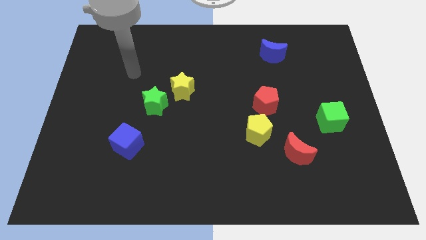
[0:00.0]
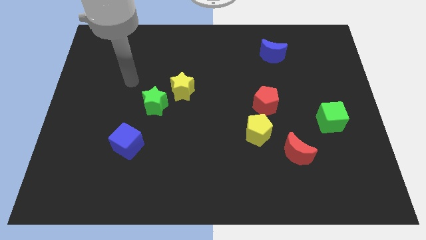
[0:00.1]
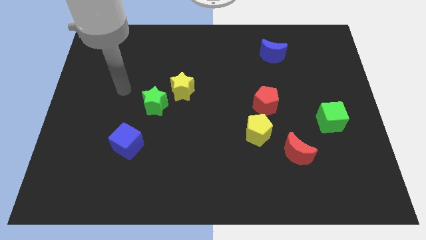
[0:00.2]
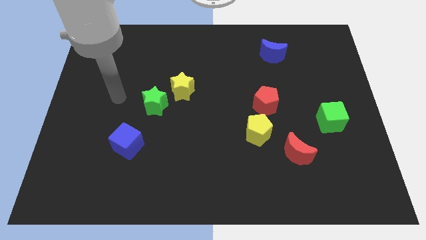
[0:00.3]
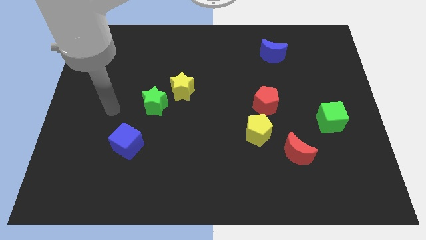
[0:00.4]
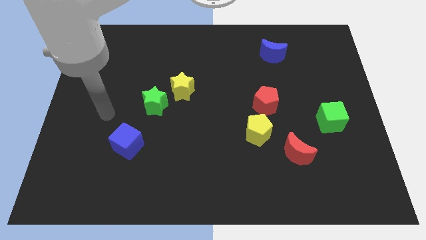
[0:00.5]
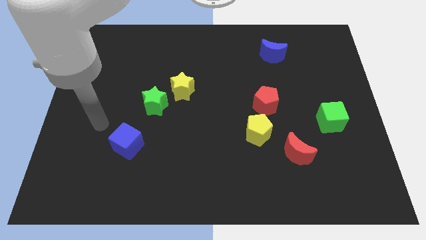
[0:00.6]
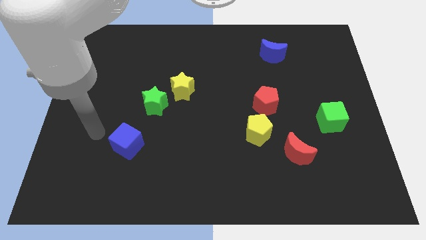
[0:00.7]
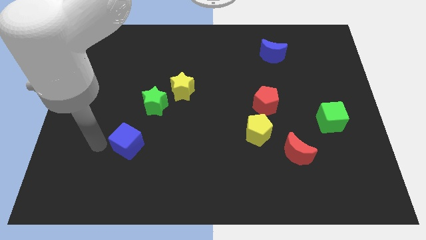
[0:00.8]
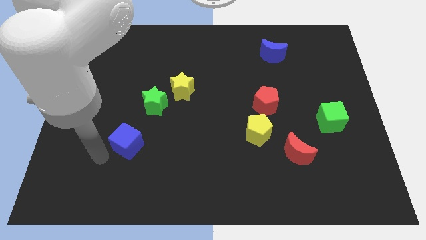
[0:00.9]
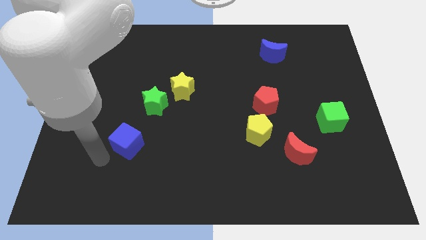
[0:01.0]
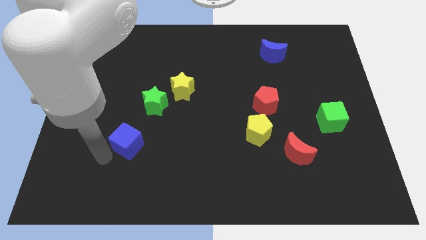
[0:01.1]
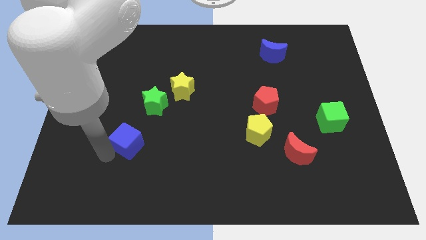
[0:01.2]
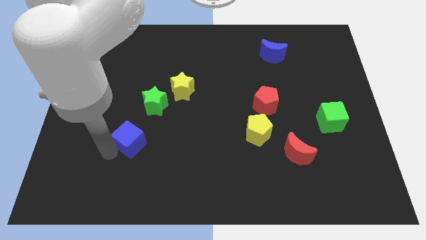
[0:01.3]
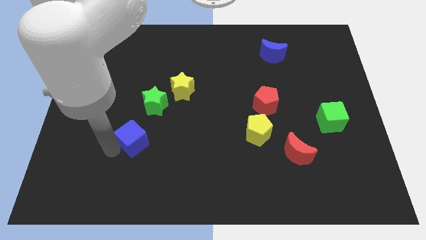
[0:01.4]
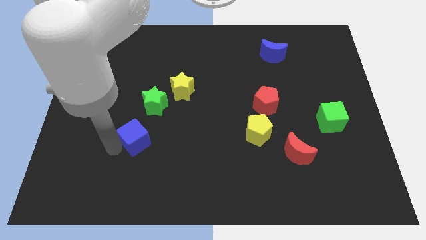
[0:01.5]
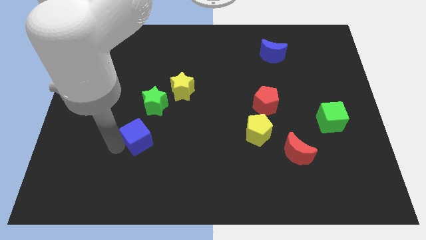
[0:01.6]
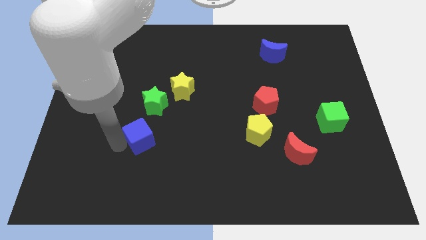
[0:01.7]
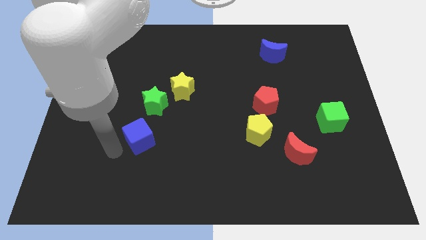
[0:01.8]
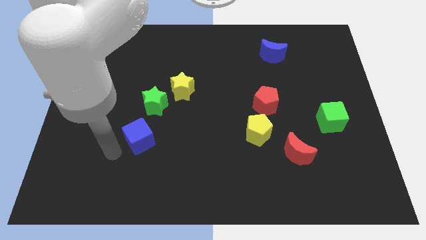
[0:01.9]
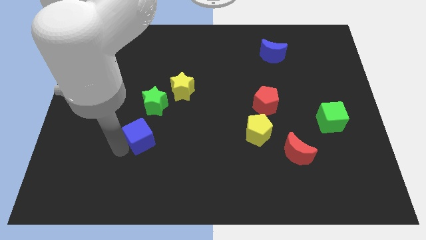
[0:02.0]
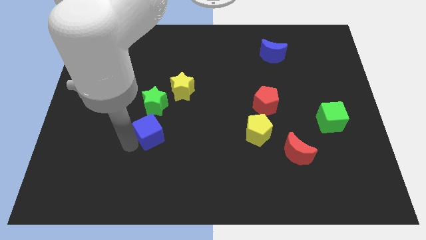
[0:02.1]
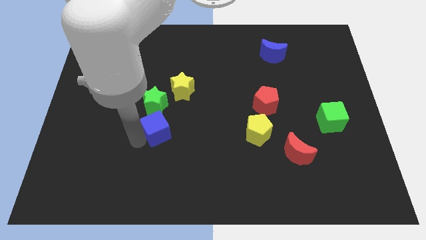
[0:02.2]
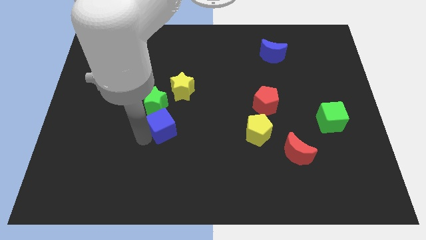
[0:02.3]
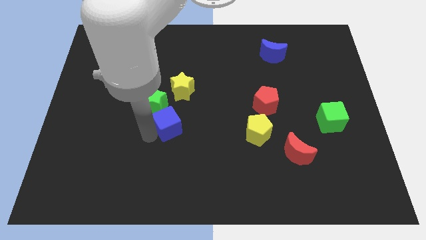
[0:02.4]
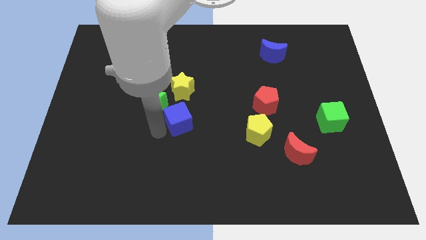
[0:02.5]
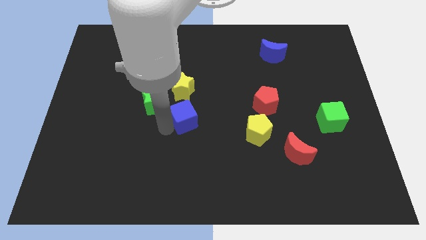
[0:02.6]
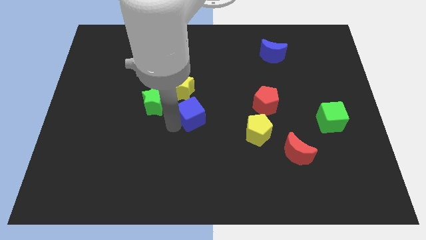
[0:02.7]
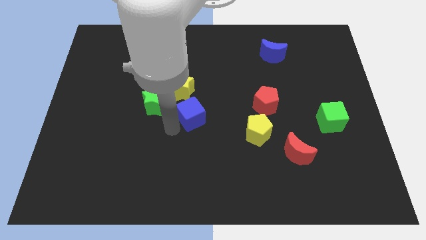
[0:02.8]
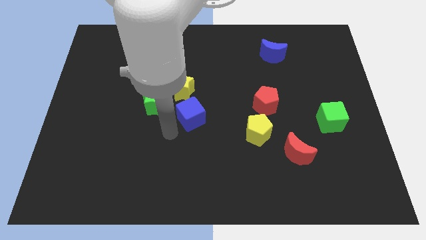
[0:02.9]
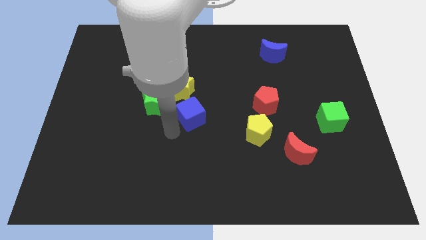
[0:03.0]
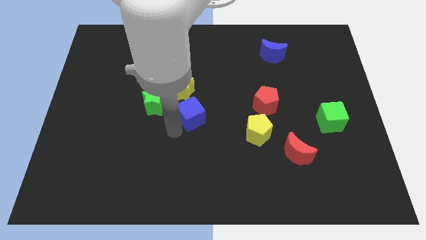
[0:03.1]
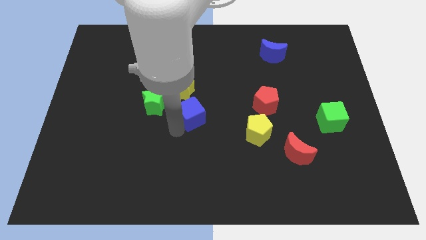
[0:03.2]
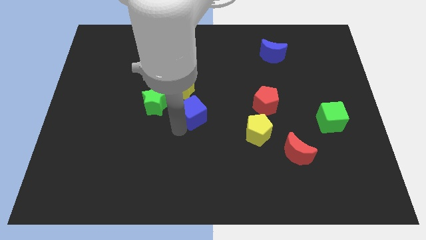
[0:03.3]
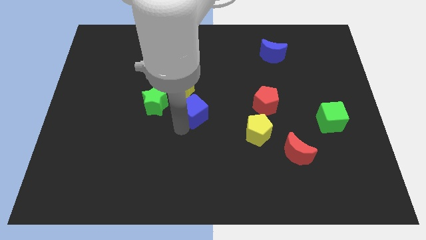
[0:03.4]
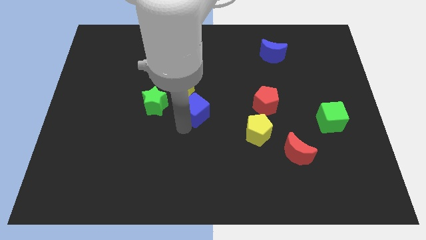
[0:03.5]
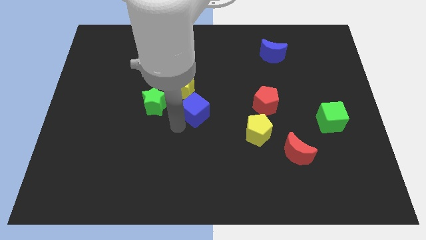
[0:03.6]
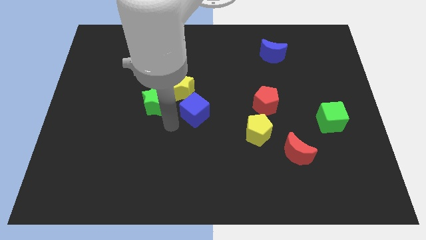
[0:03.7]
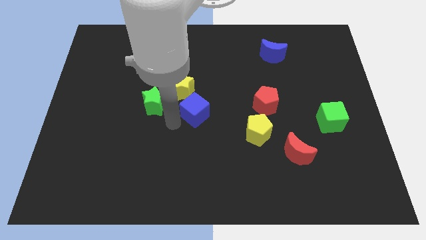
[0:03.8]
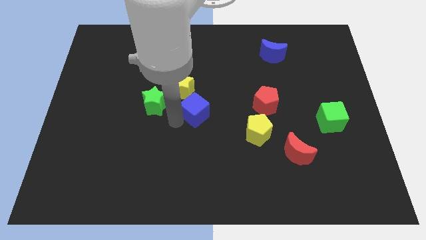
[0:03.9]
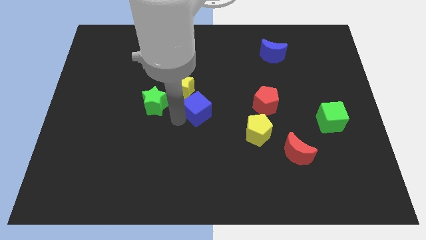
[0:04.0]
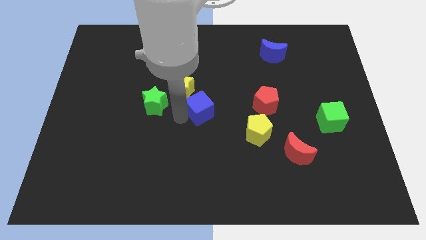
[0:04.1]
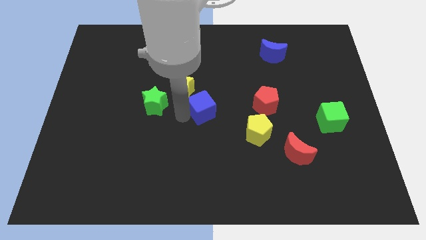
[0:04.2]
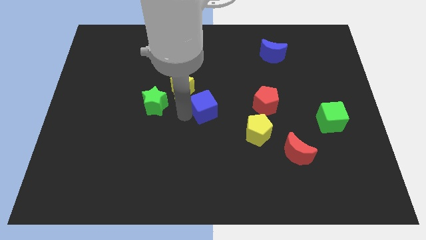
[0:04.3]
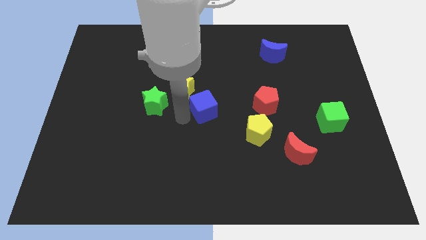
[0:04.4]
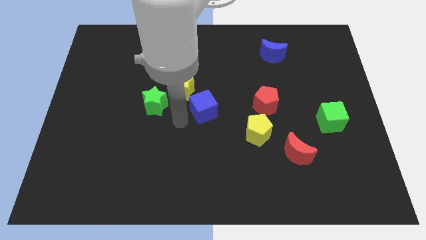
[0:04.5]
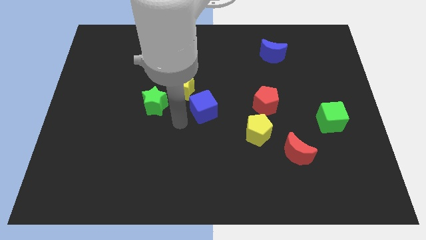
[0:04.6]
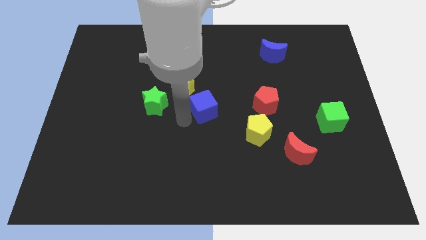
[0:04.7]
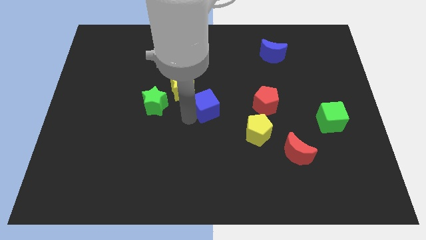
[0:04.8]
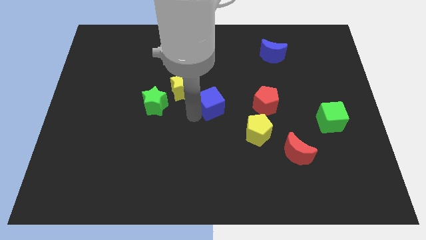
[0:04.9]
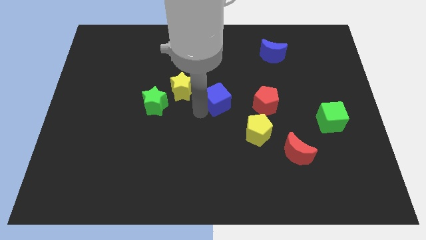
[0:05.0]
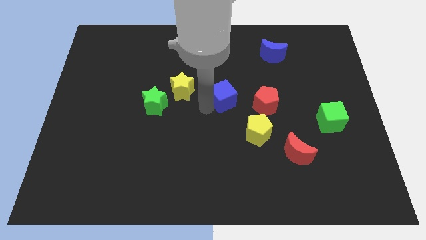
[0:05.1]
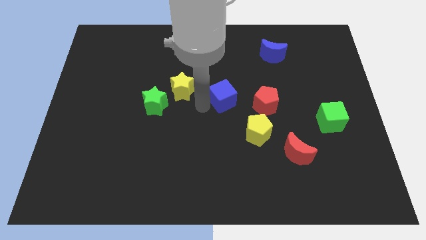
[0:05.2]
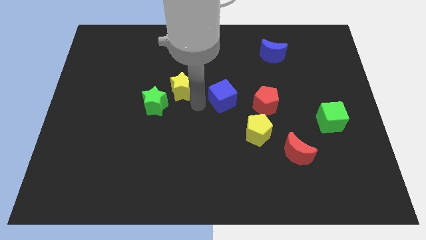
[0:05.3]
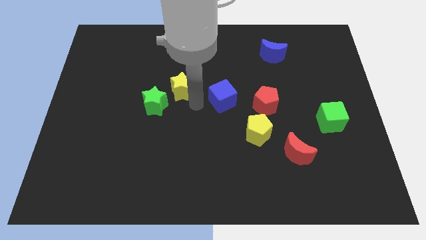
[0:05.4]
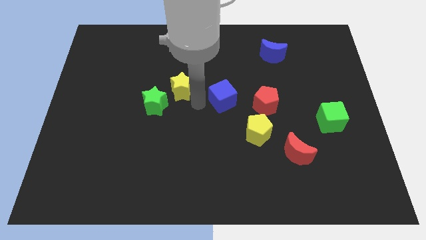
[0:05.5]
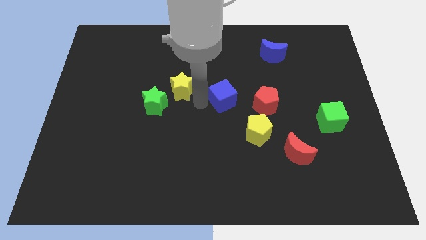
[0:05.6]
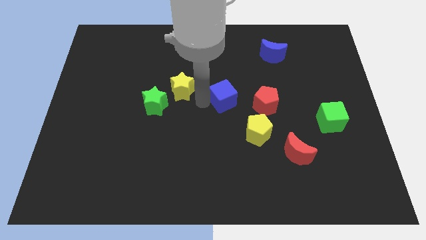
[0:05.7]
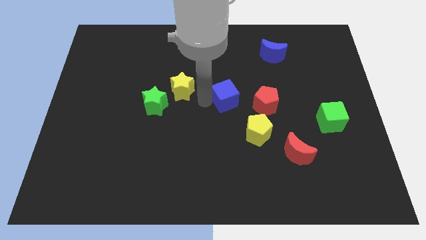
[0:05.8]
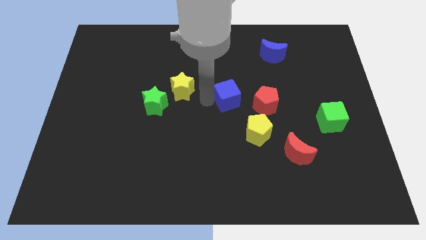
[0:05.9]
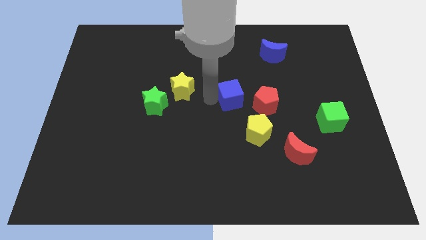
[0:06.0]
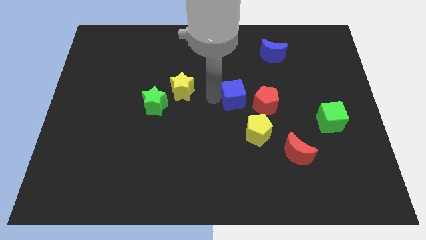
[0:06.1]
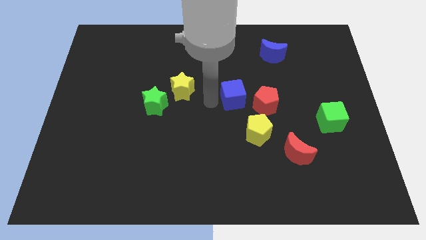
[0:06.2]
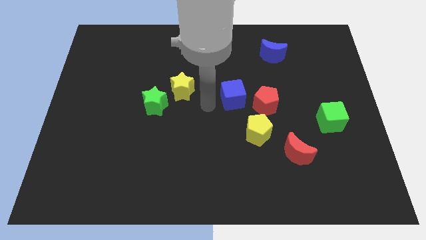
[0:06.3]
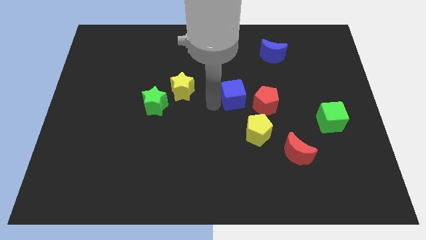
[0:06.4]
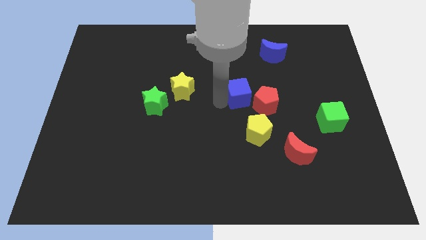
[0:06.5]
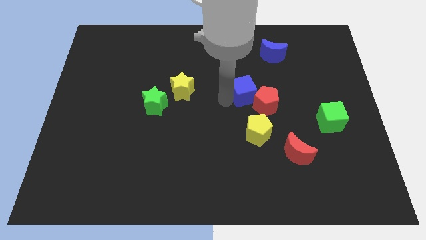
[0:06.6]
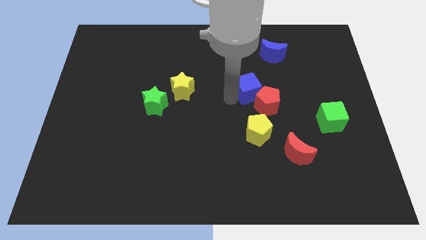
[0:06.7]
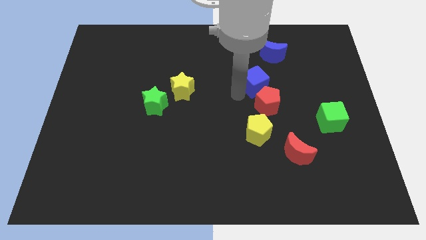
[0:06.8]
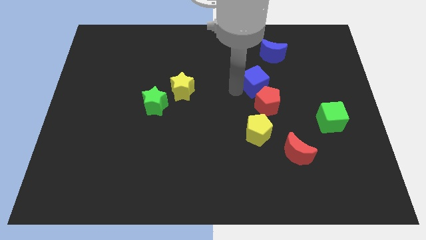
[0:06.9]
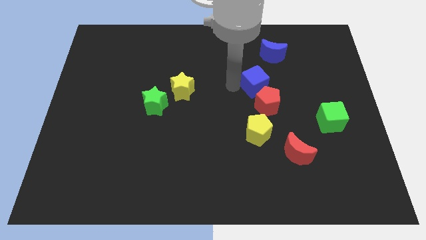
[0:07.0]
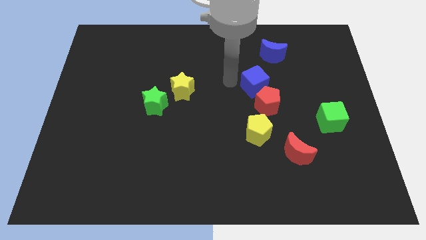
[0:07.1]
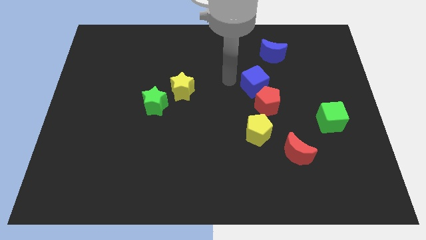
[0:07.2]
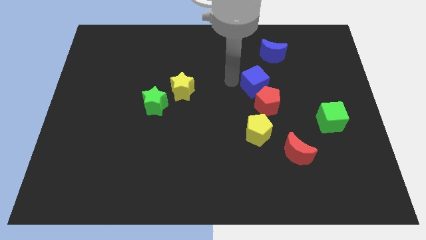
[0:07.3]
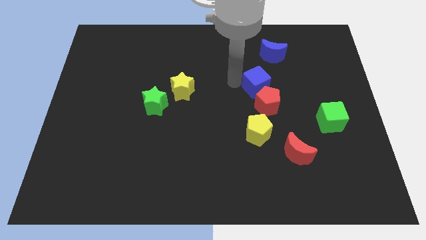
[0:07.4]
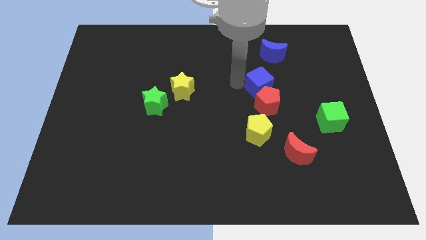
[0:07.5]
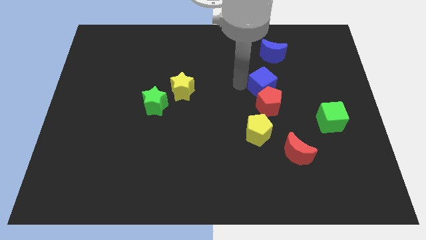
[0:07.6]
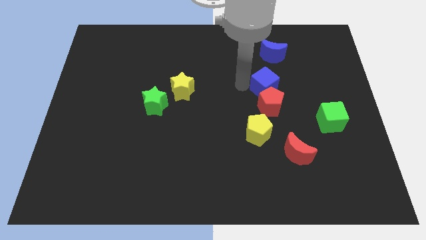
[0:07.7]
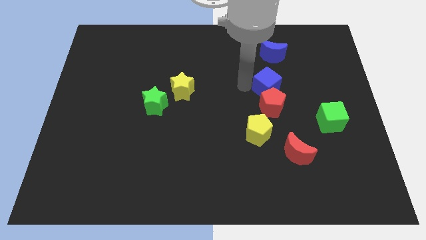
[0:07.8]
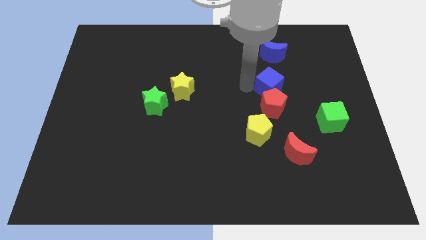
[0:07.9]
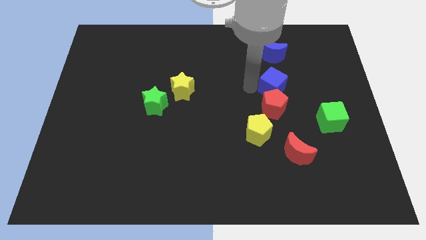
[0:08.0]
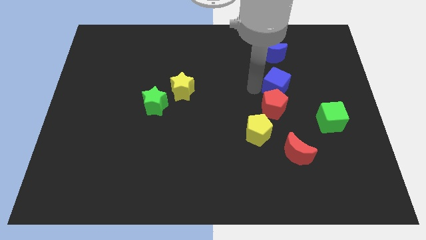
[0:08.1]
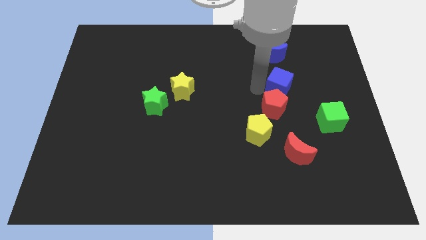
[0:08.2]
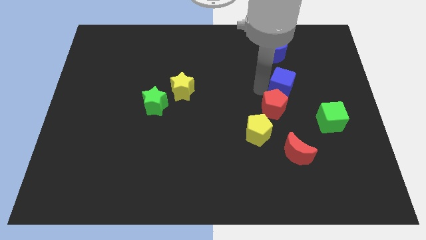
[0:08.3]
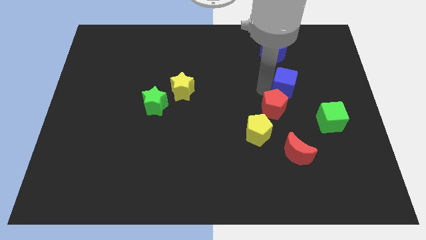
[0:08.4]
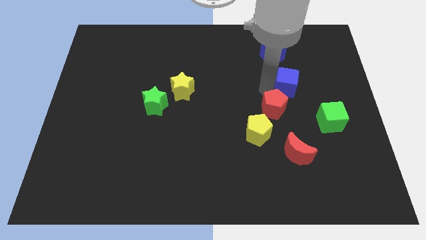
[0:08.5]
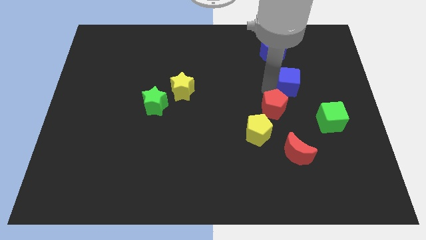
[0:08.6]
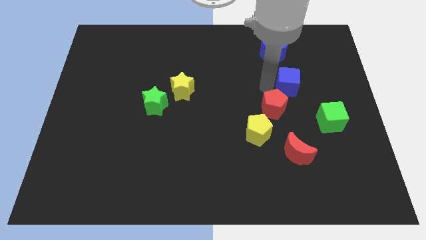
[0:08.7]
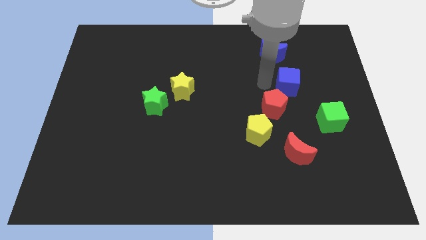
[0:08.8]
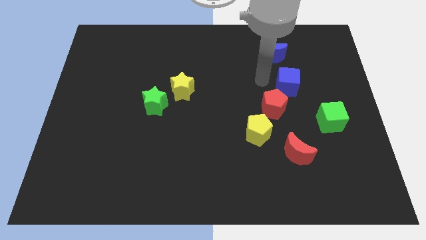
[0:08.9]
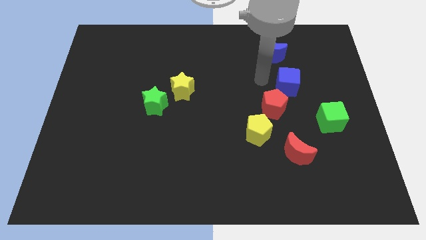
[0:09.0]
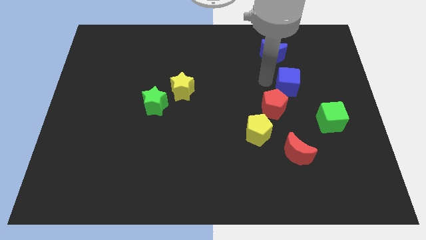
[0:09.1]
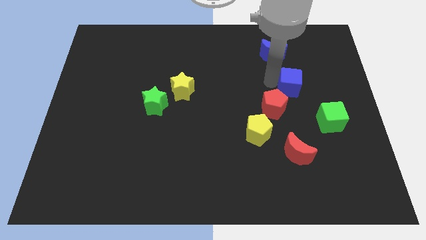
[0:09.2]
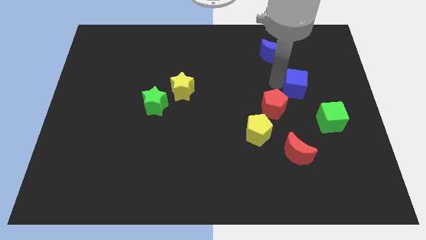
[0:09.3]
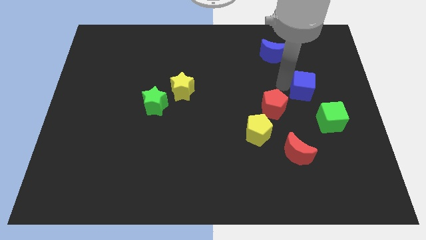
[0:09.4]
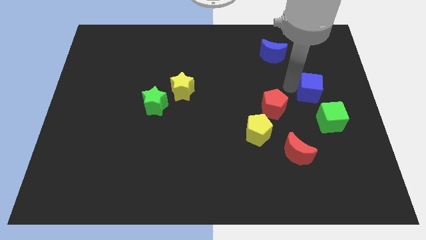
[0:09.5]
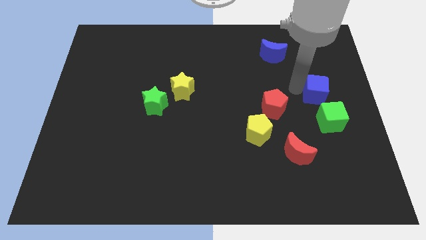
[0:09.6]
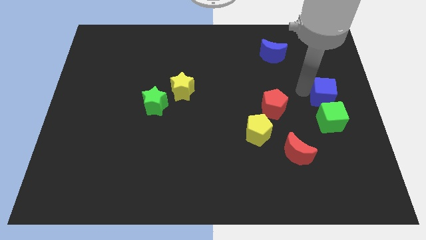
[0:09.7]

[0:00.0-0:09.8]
put the blue cube to the right side of the board
